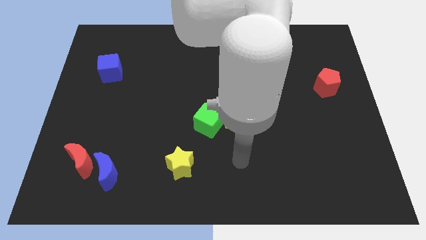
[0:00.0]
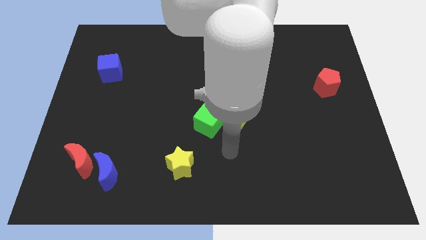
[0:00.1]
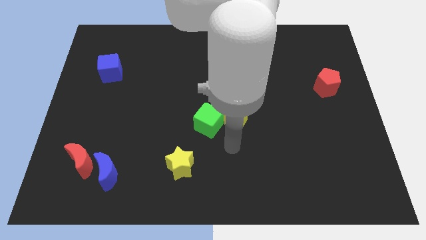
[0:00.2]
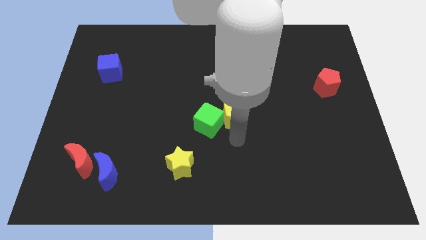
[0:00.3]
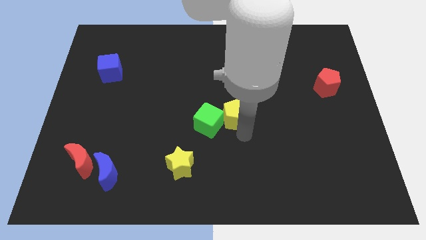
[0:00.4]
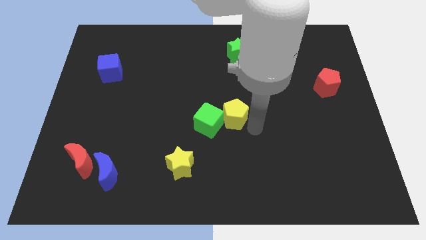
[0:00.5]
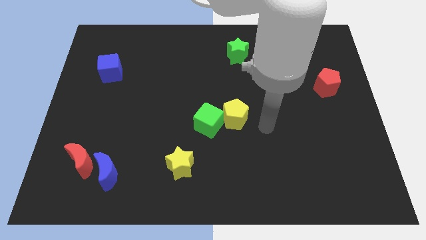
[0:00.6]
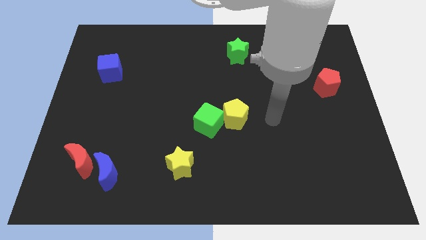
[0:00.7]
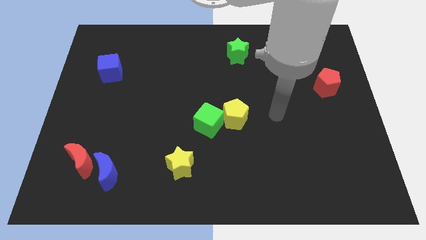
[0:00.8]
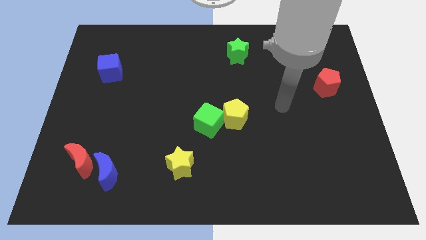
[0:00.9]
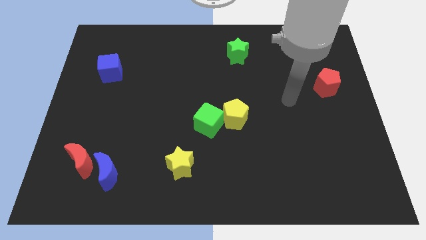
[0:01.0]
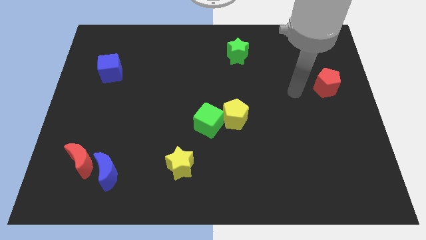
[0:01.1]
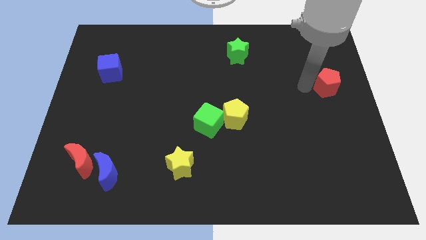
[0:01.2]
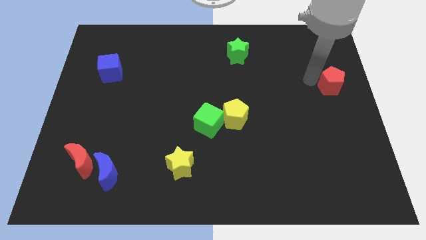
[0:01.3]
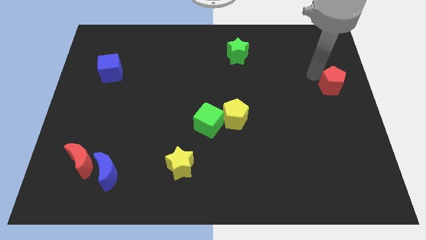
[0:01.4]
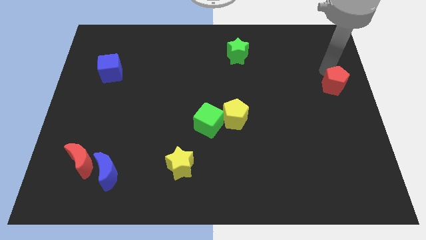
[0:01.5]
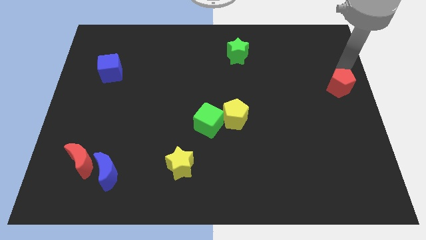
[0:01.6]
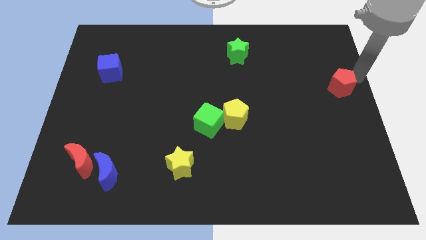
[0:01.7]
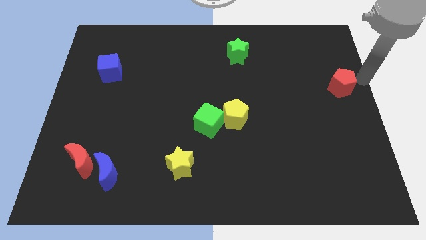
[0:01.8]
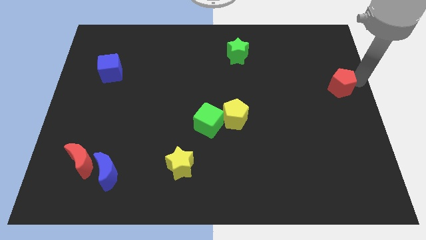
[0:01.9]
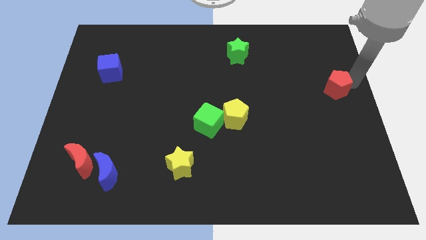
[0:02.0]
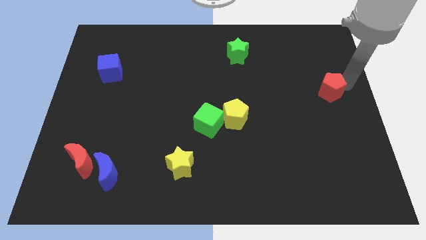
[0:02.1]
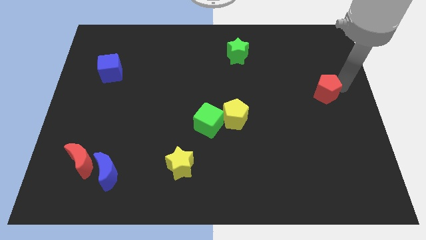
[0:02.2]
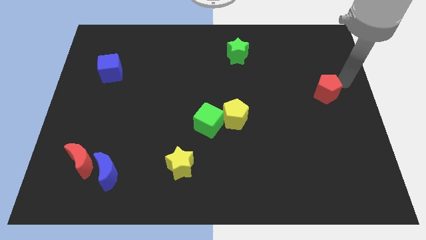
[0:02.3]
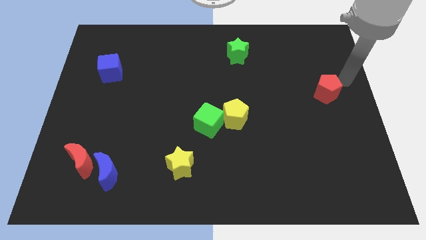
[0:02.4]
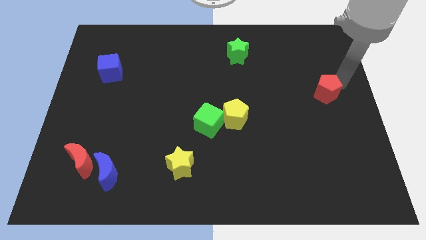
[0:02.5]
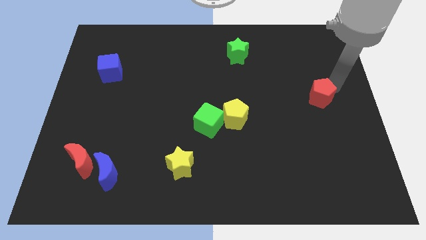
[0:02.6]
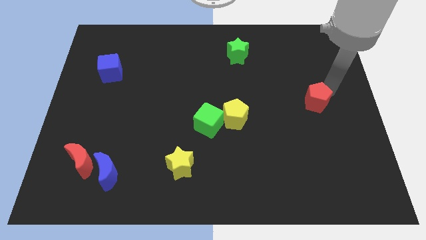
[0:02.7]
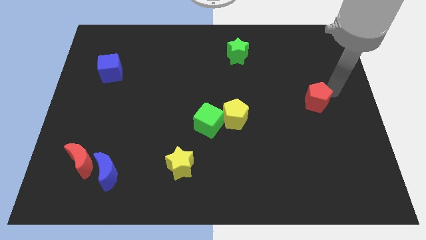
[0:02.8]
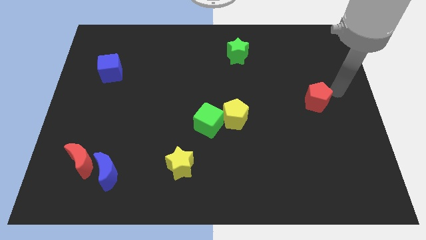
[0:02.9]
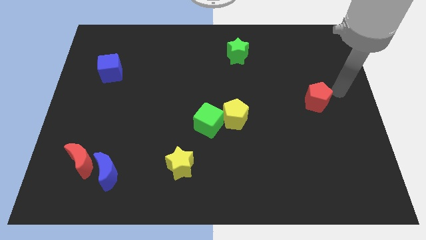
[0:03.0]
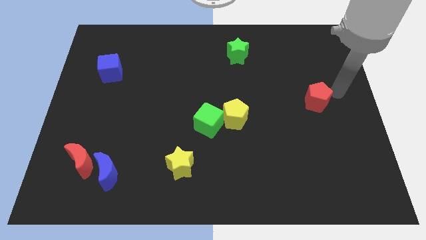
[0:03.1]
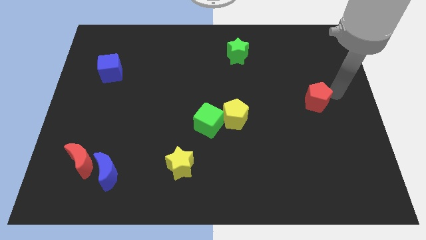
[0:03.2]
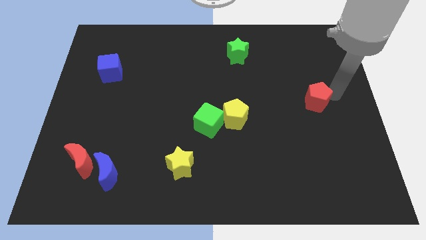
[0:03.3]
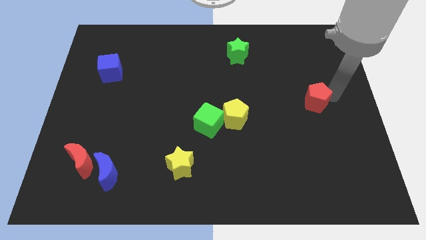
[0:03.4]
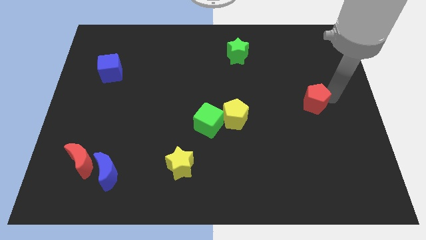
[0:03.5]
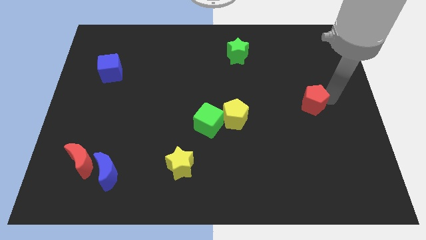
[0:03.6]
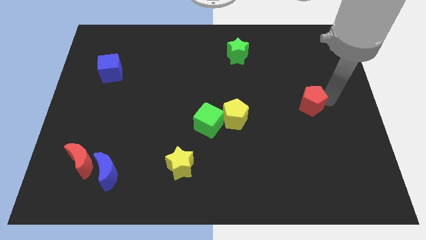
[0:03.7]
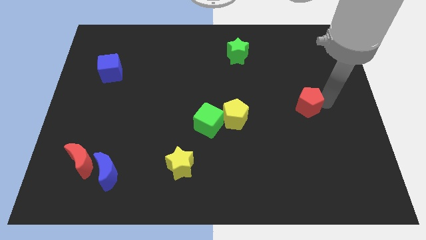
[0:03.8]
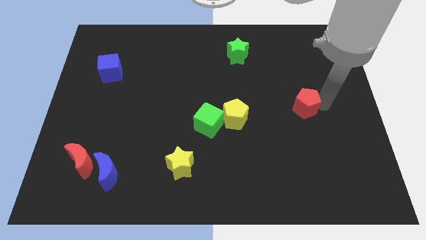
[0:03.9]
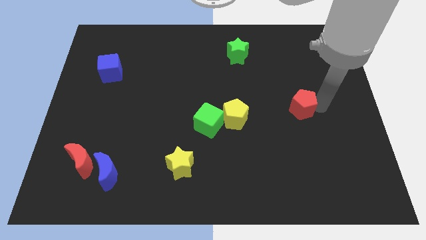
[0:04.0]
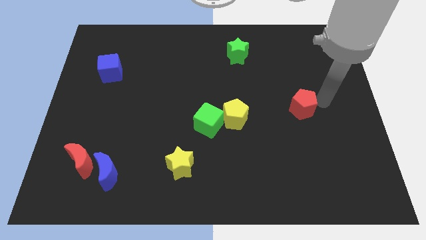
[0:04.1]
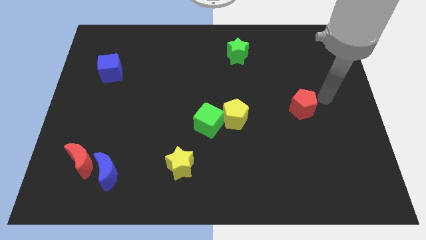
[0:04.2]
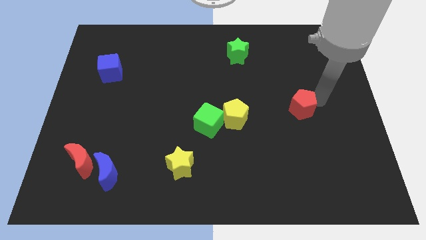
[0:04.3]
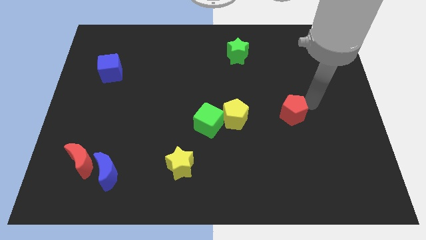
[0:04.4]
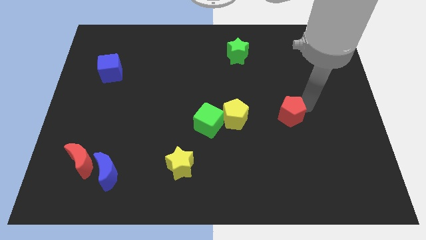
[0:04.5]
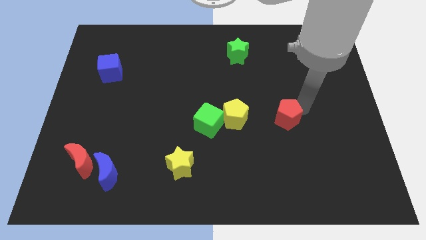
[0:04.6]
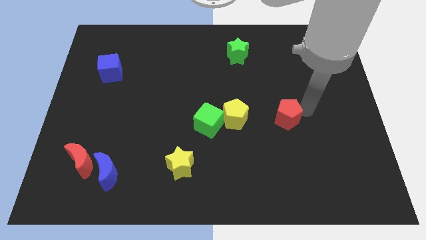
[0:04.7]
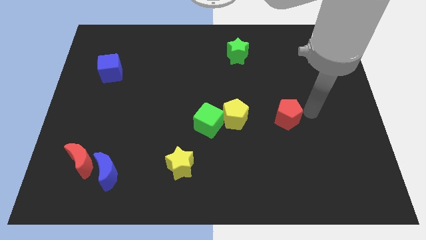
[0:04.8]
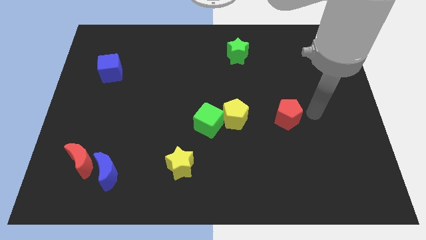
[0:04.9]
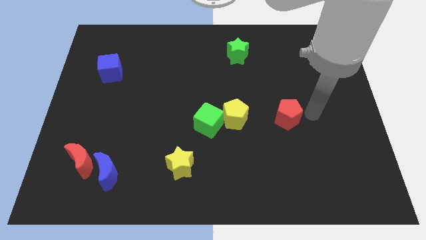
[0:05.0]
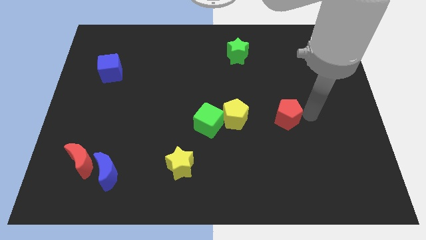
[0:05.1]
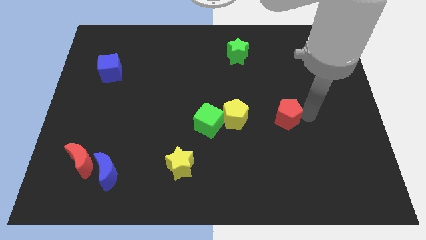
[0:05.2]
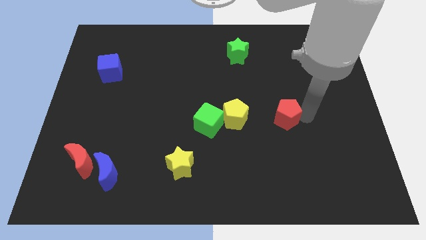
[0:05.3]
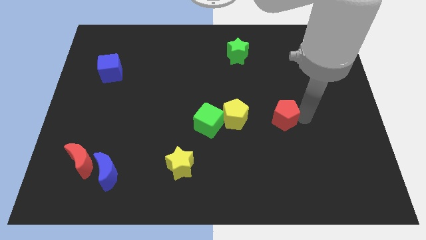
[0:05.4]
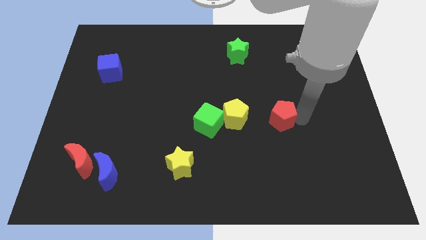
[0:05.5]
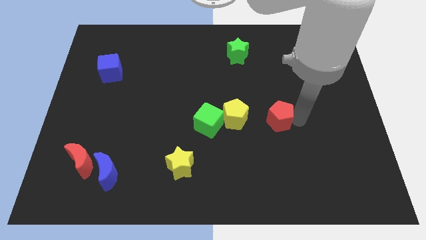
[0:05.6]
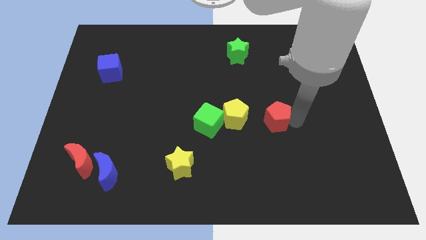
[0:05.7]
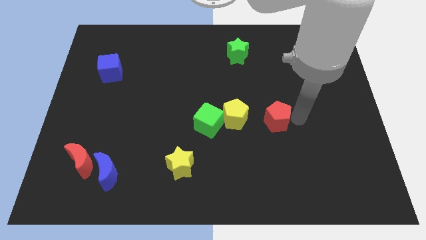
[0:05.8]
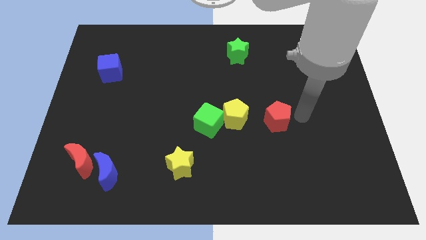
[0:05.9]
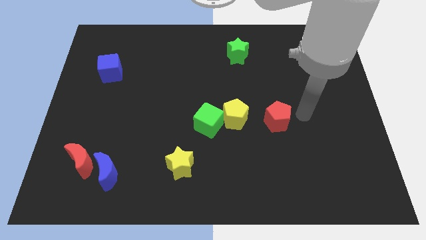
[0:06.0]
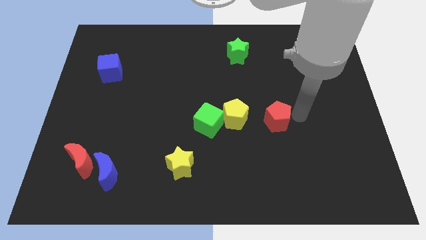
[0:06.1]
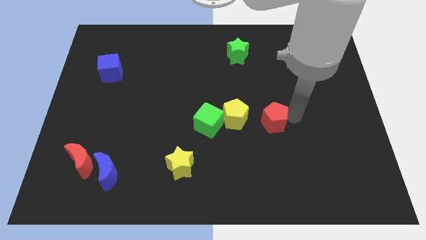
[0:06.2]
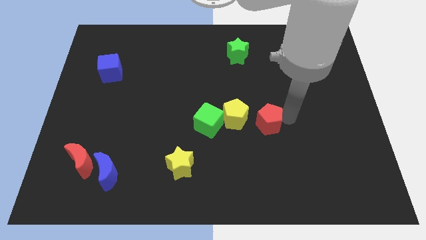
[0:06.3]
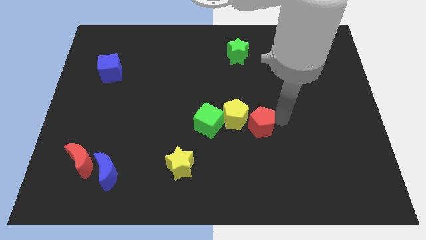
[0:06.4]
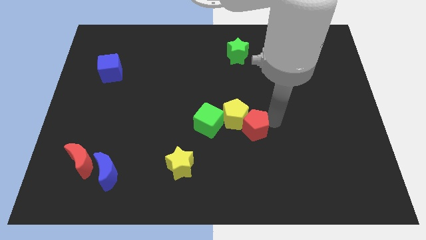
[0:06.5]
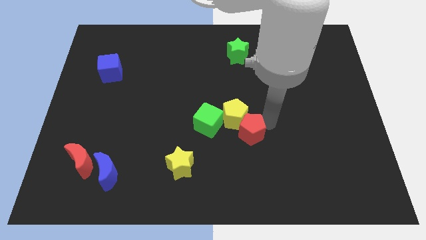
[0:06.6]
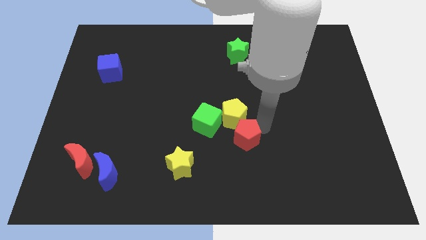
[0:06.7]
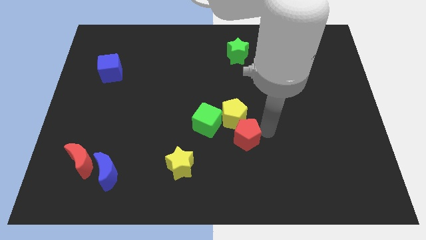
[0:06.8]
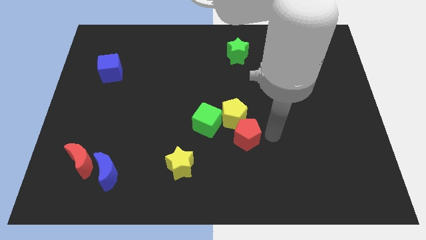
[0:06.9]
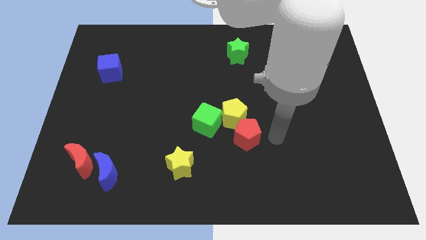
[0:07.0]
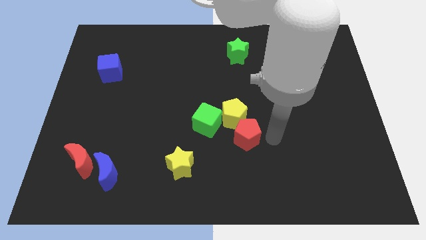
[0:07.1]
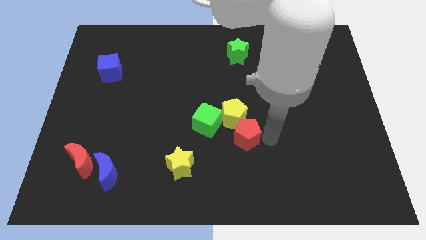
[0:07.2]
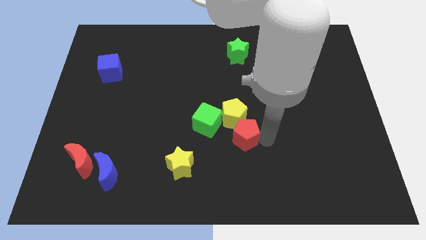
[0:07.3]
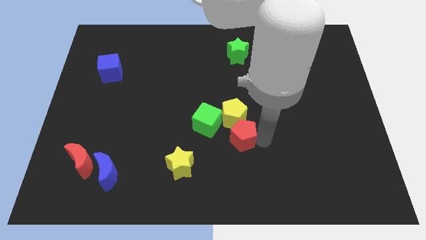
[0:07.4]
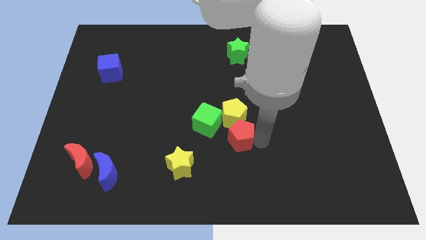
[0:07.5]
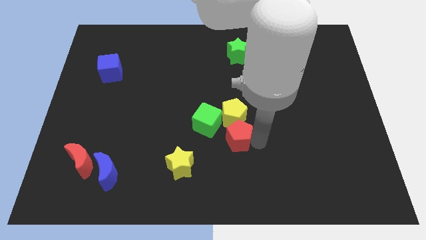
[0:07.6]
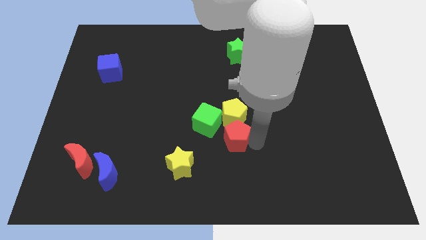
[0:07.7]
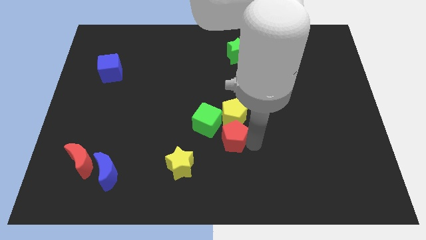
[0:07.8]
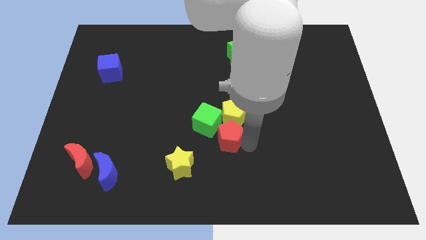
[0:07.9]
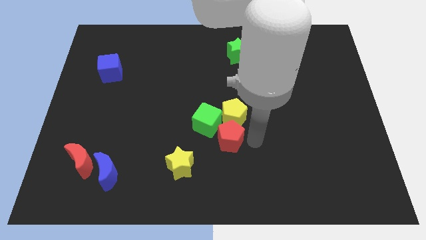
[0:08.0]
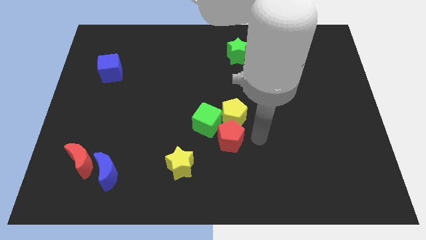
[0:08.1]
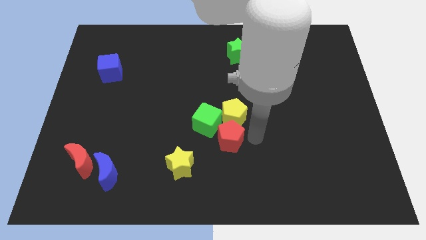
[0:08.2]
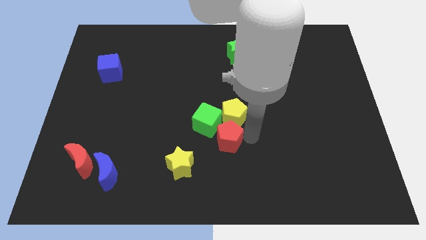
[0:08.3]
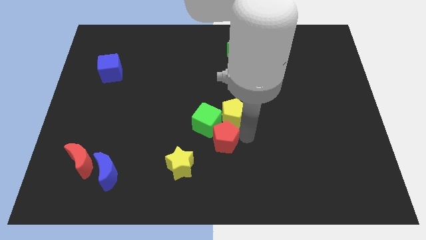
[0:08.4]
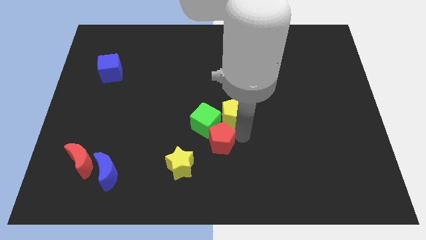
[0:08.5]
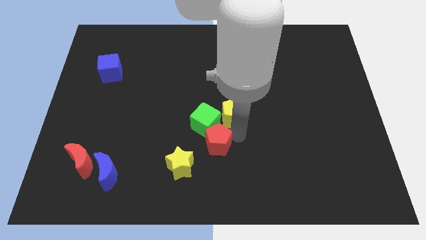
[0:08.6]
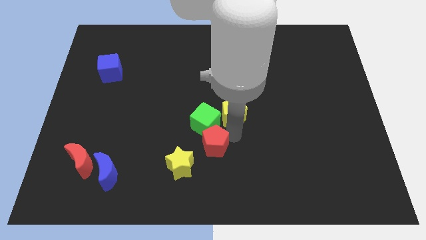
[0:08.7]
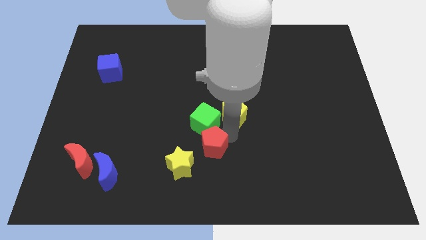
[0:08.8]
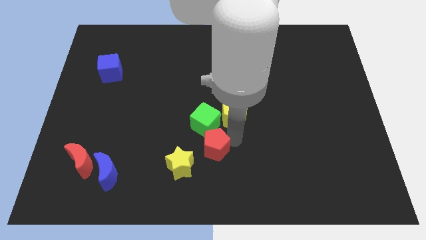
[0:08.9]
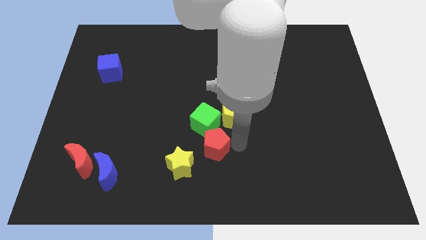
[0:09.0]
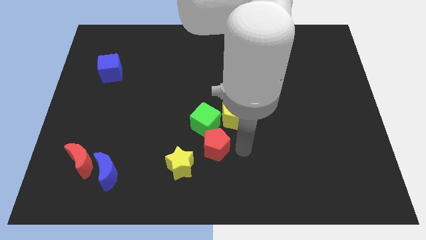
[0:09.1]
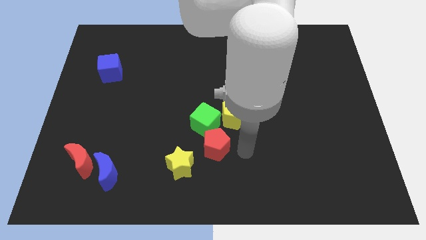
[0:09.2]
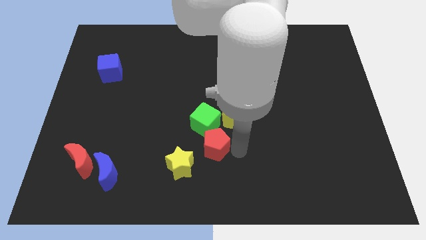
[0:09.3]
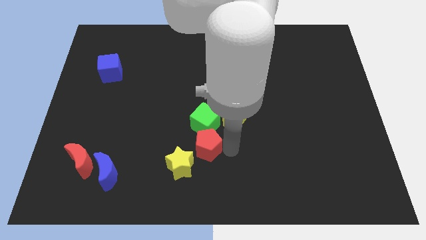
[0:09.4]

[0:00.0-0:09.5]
slide the red pentagon to the bottom left of the green cube
